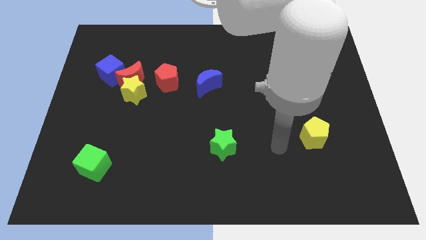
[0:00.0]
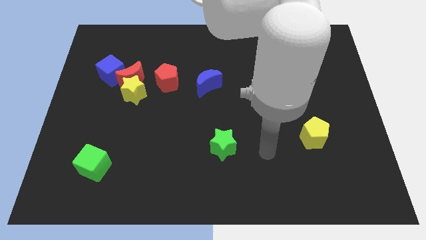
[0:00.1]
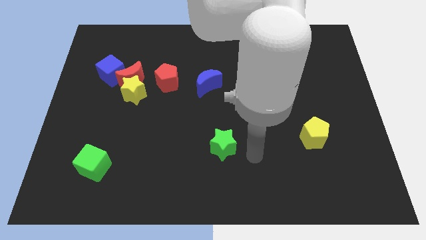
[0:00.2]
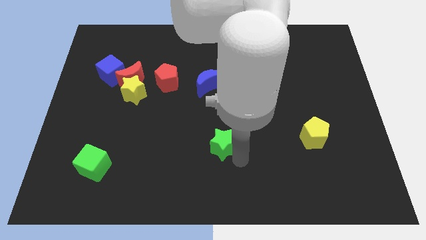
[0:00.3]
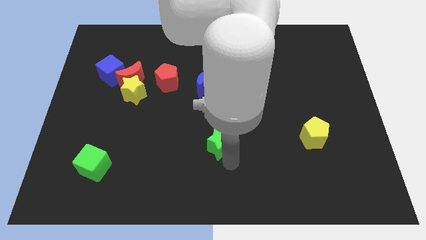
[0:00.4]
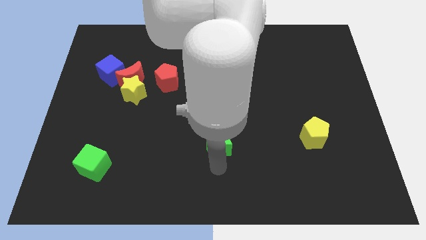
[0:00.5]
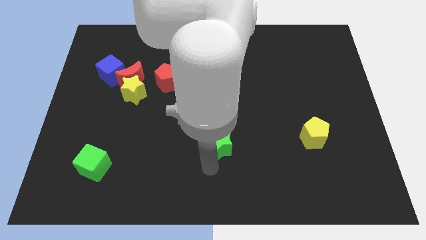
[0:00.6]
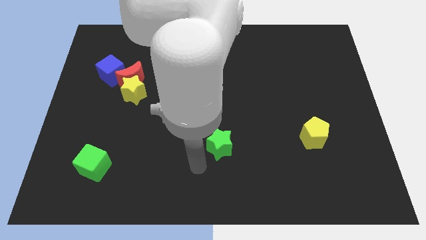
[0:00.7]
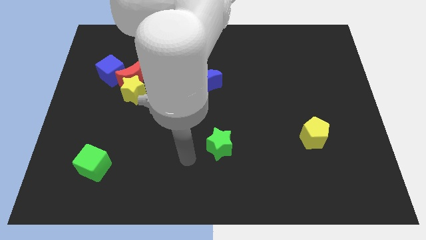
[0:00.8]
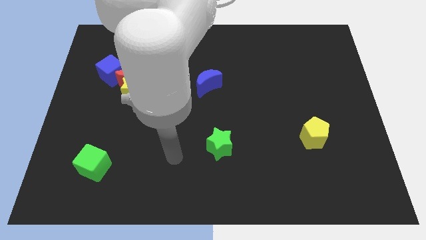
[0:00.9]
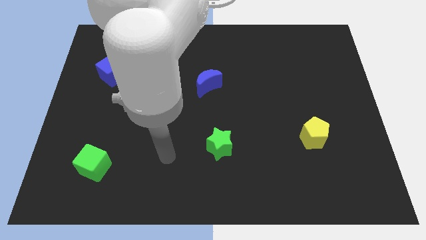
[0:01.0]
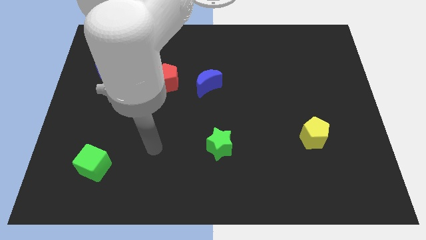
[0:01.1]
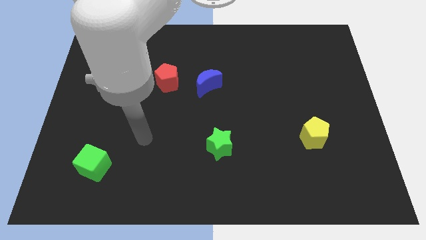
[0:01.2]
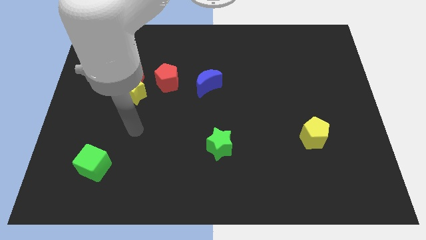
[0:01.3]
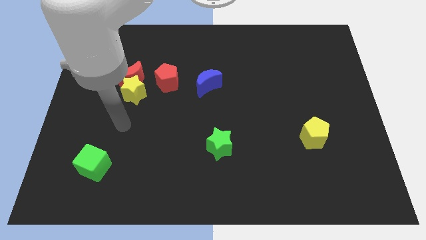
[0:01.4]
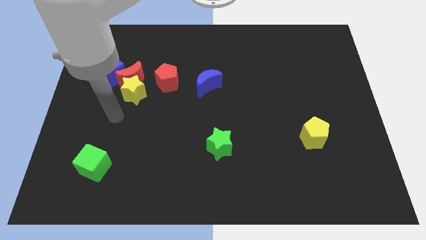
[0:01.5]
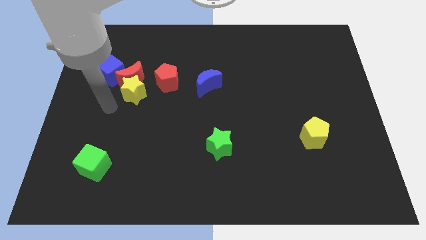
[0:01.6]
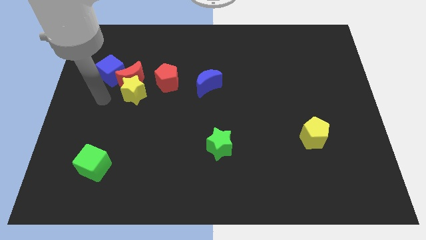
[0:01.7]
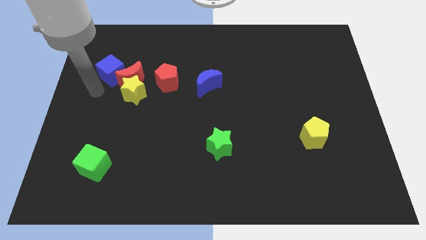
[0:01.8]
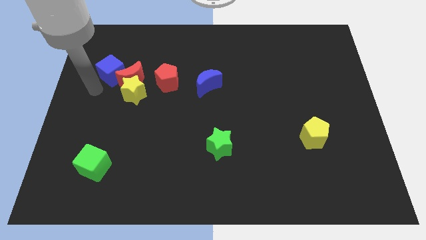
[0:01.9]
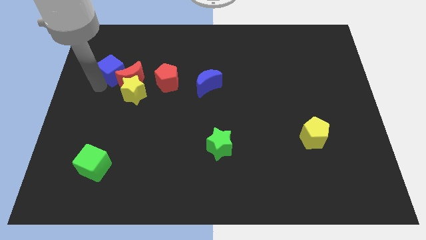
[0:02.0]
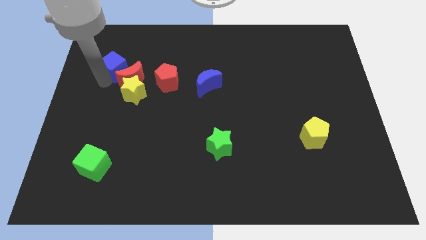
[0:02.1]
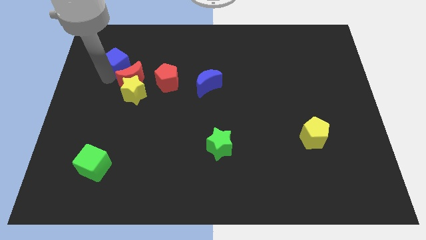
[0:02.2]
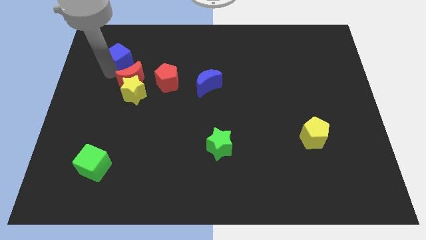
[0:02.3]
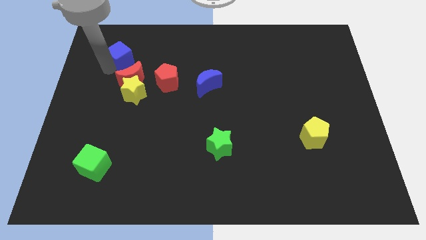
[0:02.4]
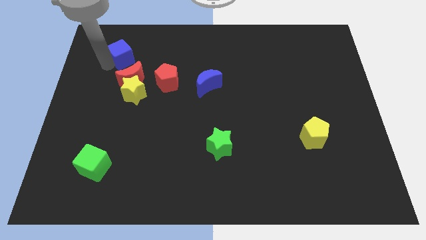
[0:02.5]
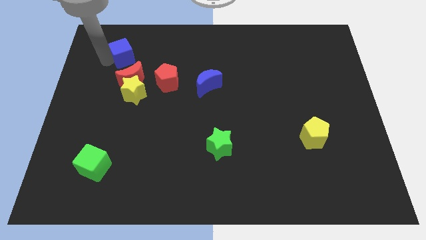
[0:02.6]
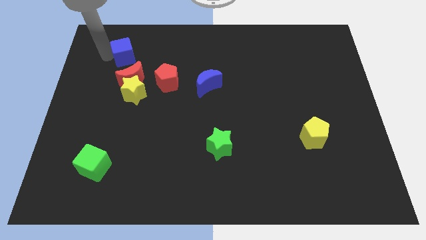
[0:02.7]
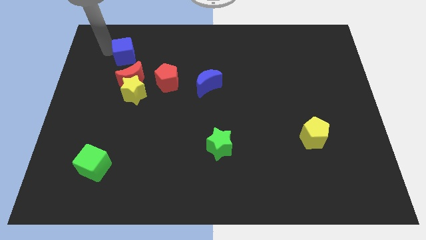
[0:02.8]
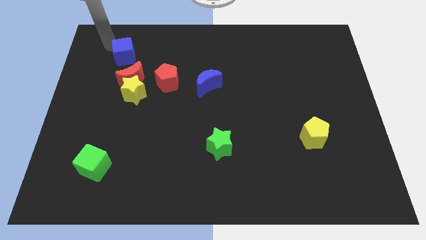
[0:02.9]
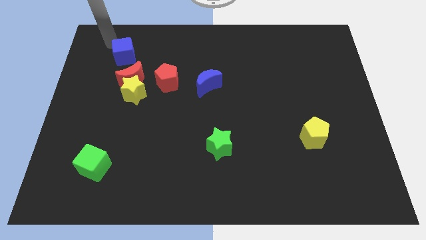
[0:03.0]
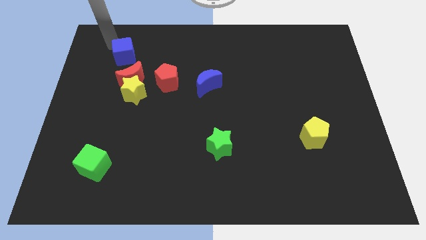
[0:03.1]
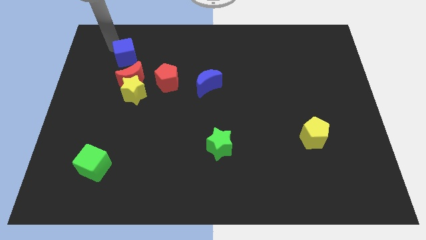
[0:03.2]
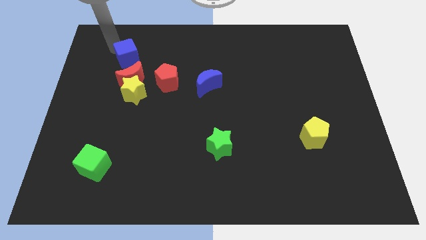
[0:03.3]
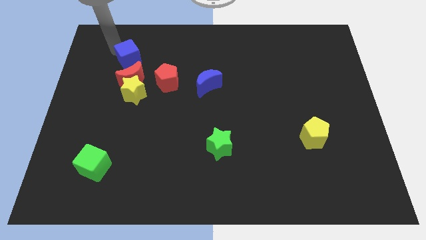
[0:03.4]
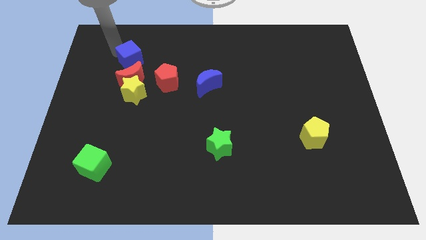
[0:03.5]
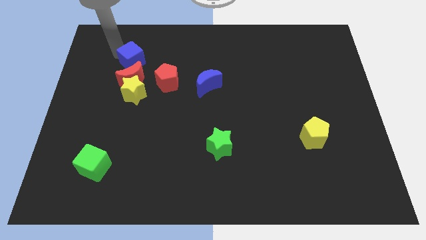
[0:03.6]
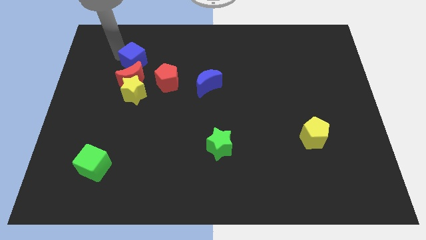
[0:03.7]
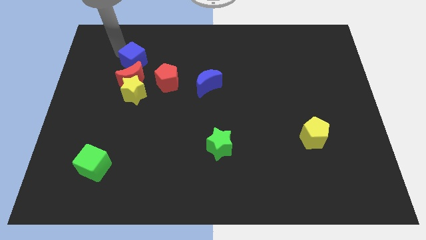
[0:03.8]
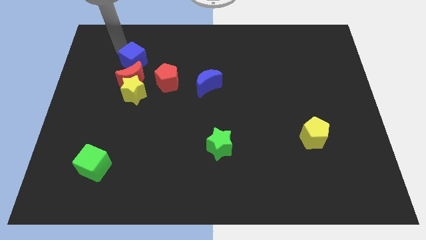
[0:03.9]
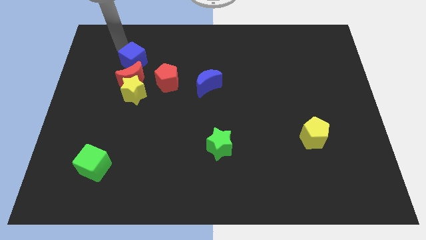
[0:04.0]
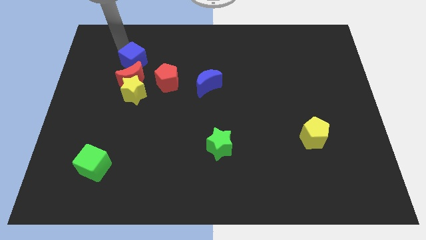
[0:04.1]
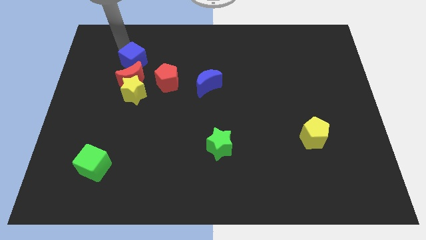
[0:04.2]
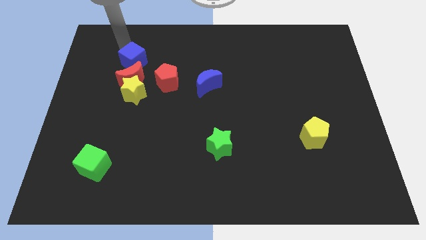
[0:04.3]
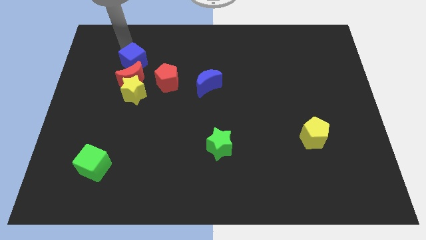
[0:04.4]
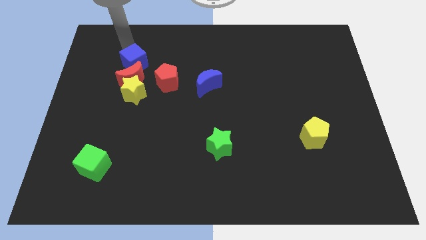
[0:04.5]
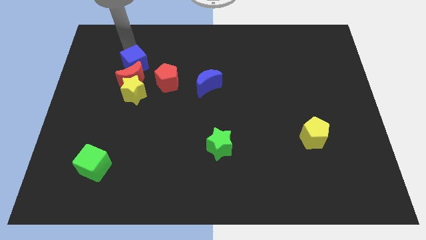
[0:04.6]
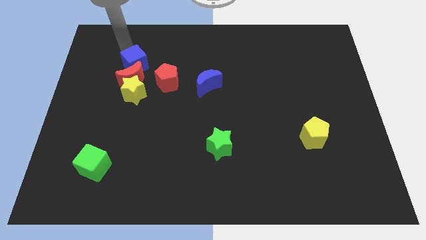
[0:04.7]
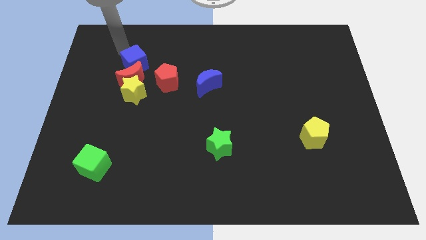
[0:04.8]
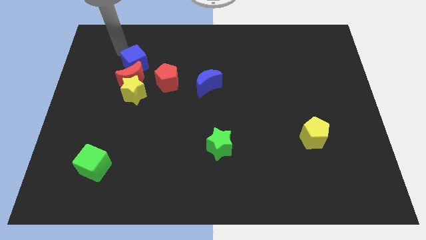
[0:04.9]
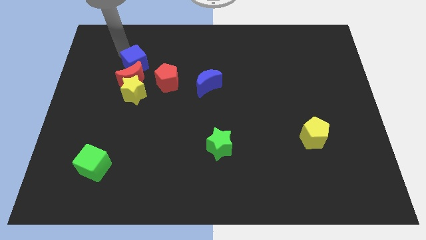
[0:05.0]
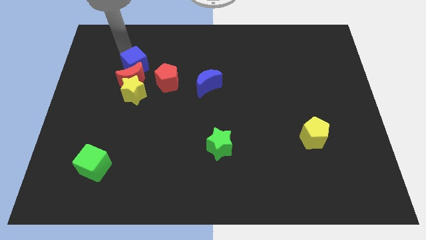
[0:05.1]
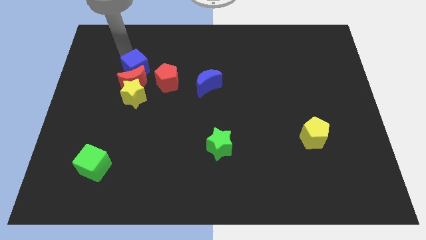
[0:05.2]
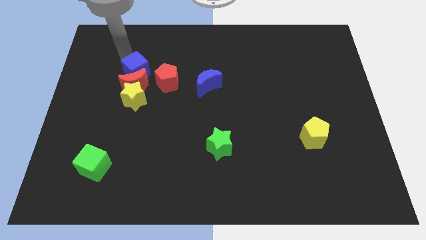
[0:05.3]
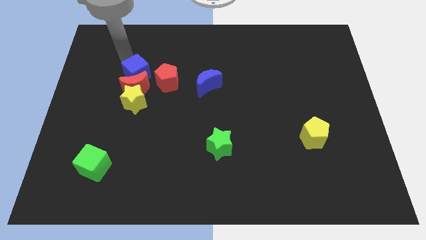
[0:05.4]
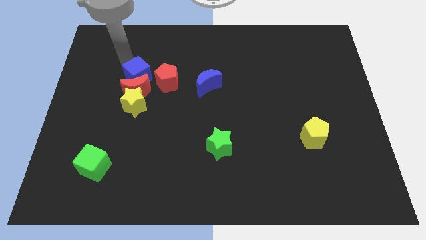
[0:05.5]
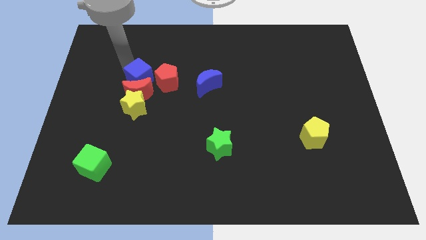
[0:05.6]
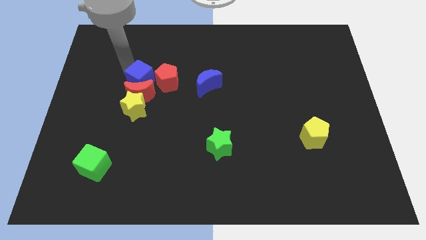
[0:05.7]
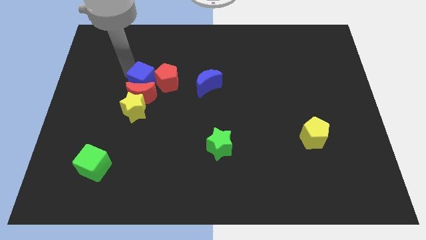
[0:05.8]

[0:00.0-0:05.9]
push the blue cube next to the red pentagon

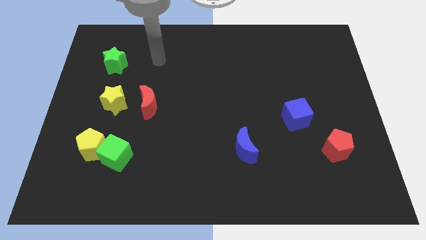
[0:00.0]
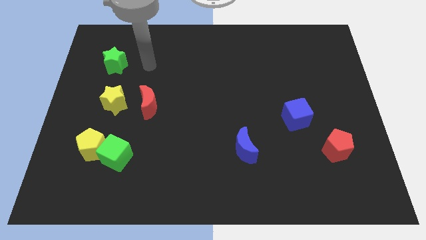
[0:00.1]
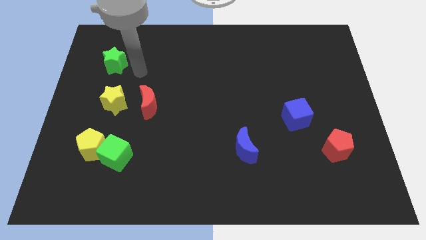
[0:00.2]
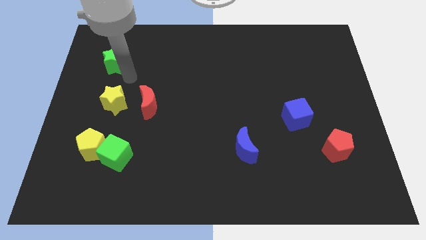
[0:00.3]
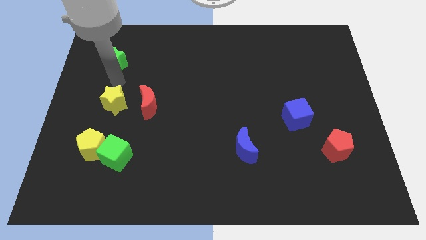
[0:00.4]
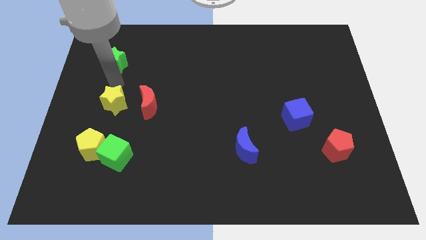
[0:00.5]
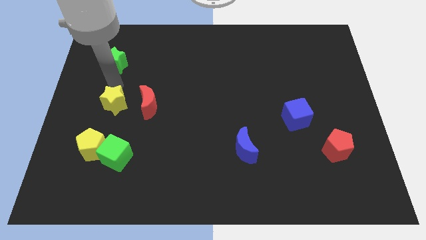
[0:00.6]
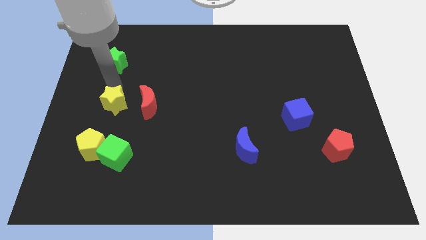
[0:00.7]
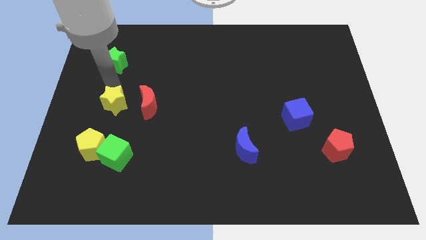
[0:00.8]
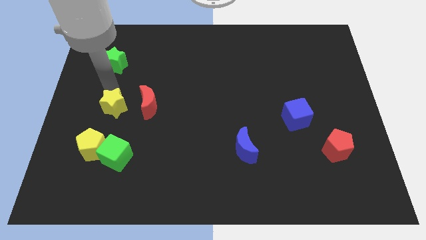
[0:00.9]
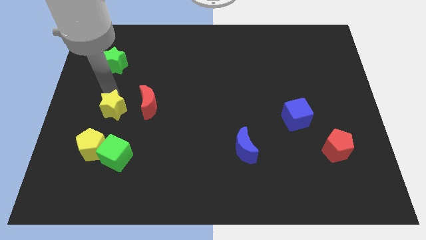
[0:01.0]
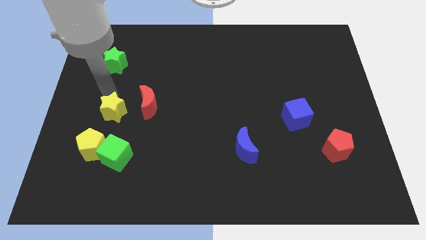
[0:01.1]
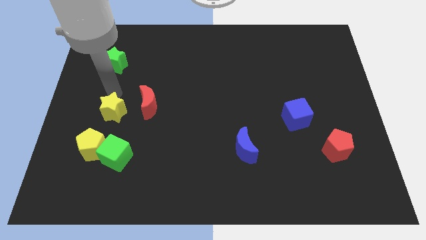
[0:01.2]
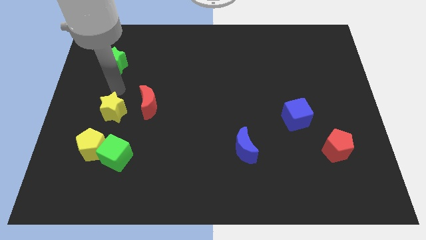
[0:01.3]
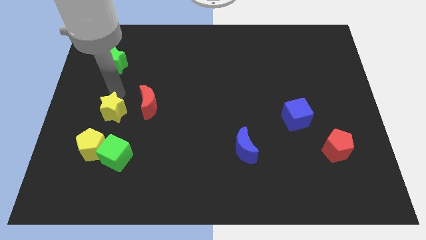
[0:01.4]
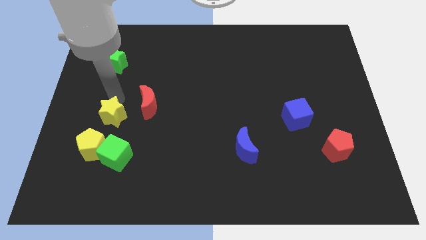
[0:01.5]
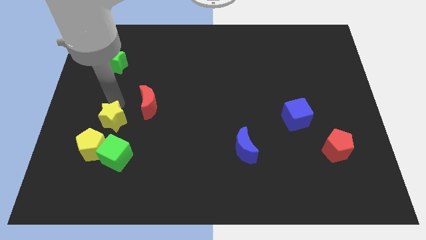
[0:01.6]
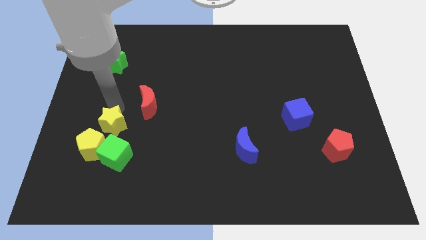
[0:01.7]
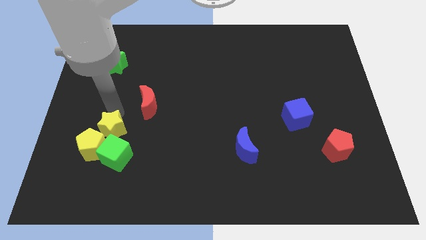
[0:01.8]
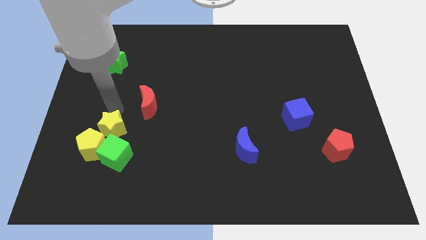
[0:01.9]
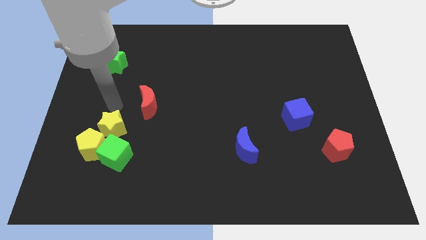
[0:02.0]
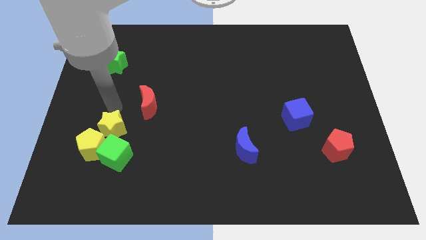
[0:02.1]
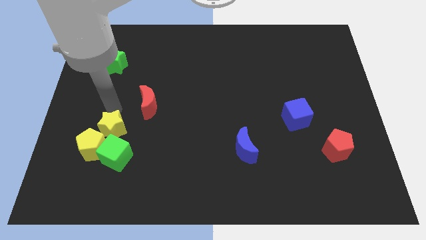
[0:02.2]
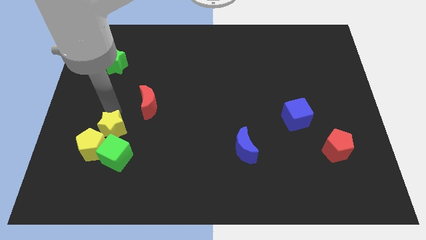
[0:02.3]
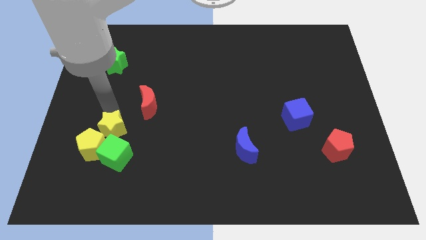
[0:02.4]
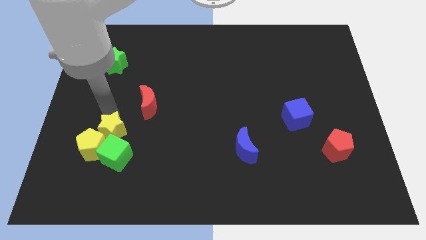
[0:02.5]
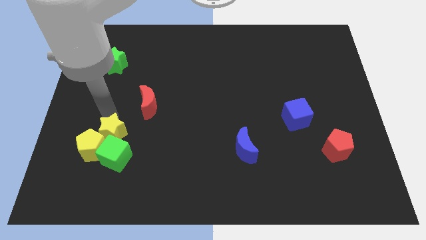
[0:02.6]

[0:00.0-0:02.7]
put the yellow star close to the green cube
